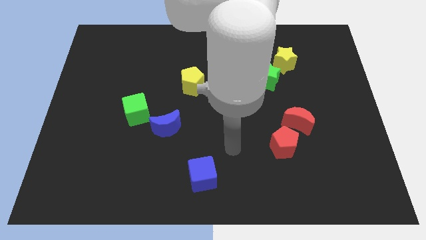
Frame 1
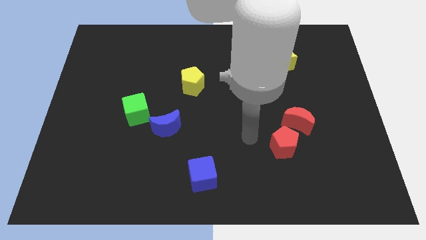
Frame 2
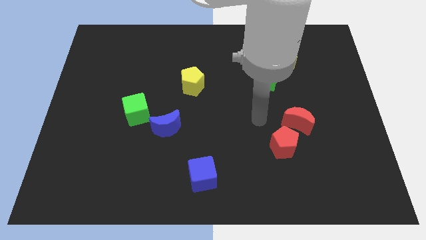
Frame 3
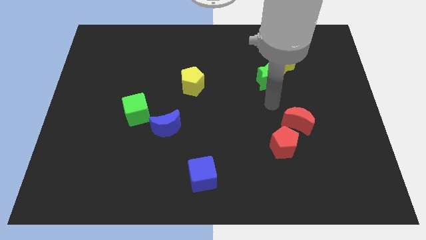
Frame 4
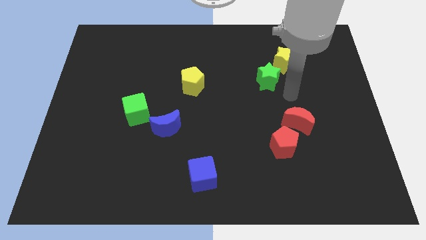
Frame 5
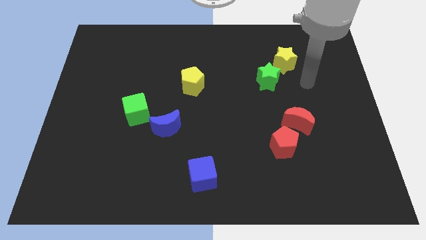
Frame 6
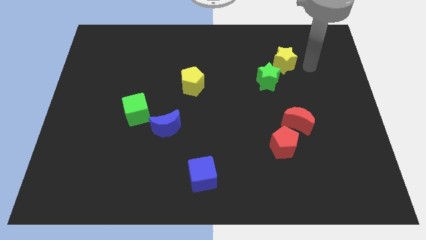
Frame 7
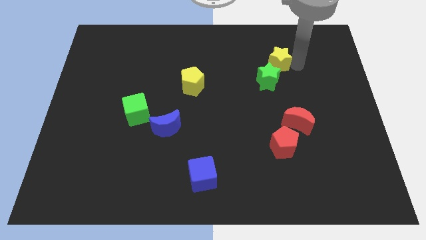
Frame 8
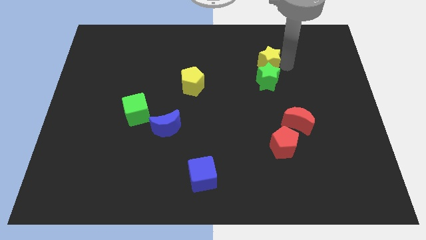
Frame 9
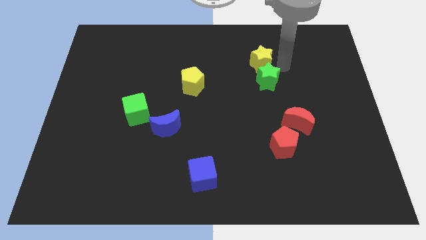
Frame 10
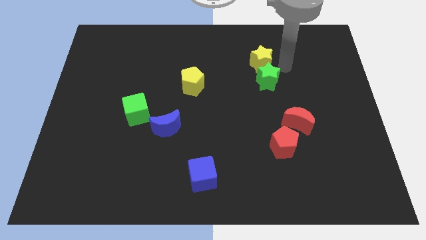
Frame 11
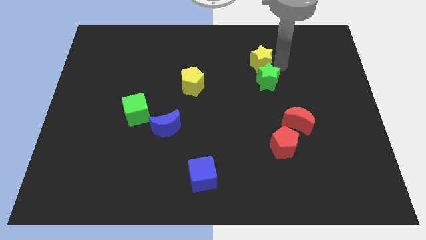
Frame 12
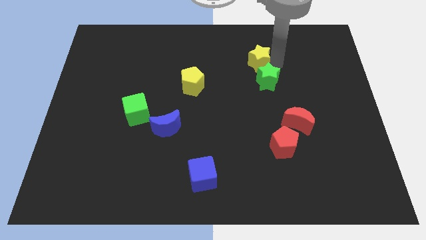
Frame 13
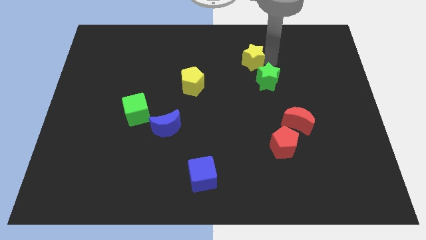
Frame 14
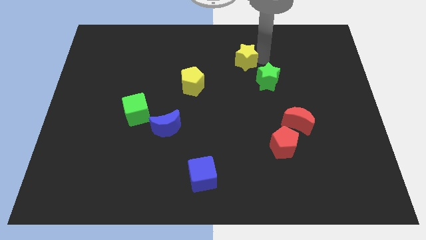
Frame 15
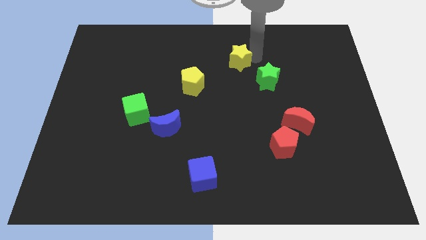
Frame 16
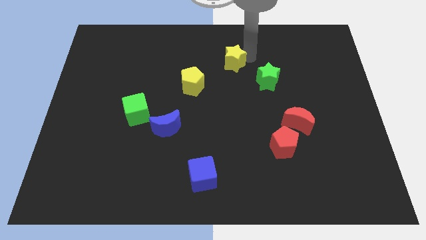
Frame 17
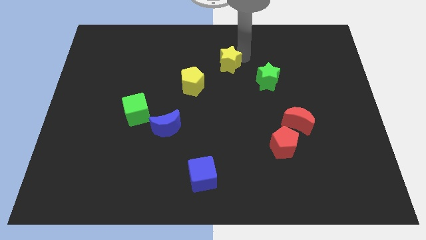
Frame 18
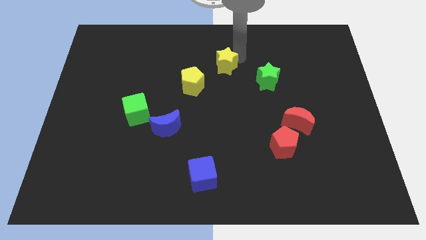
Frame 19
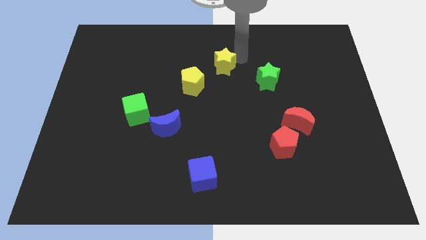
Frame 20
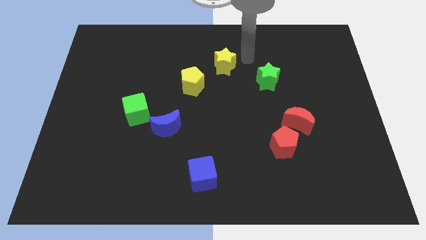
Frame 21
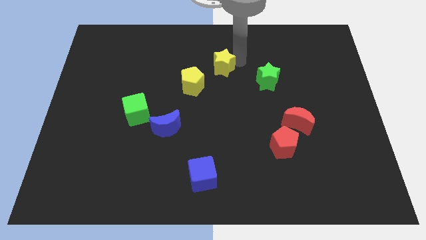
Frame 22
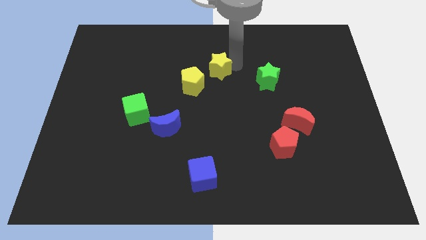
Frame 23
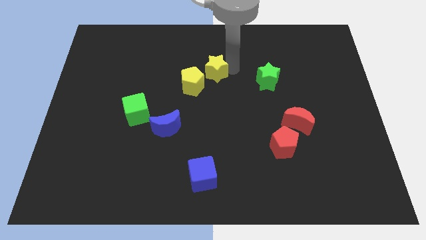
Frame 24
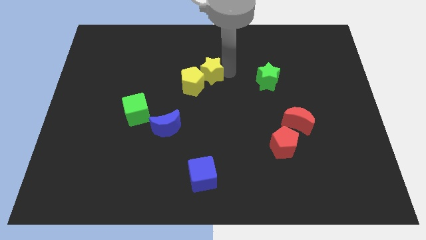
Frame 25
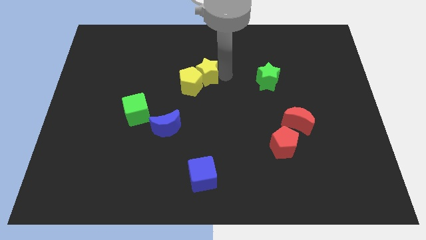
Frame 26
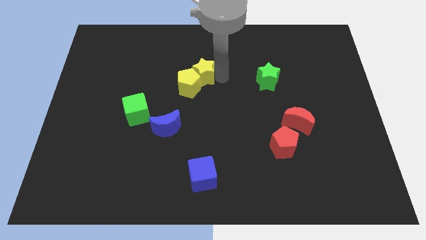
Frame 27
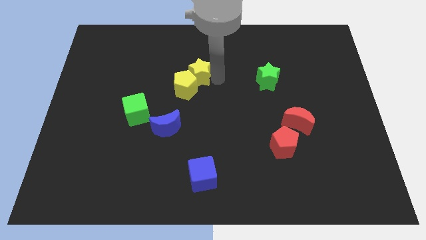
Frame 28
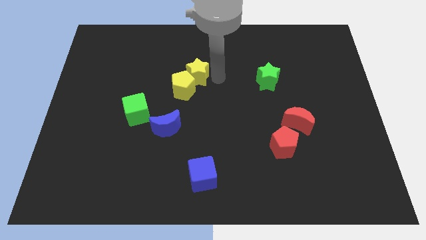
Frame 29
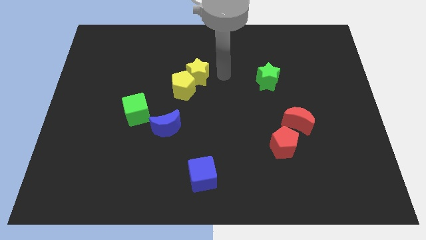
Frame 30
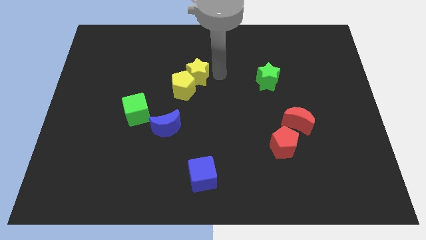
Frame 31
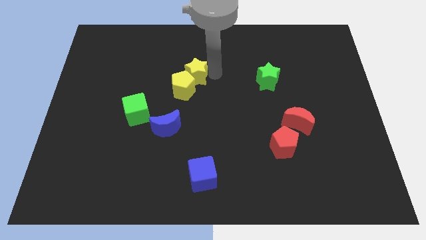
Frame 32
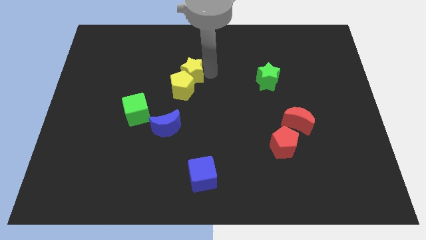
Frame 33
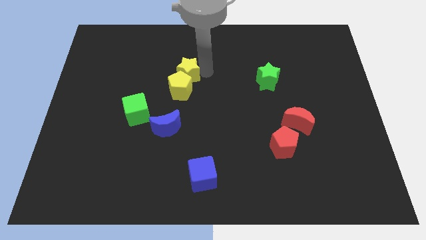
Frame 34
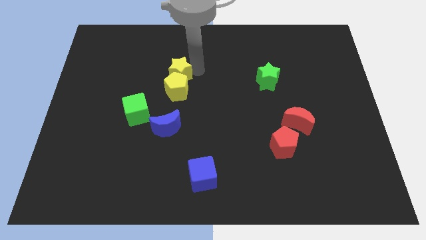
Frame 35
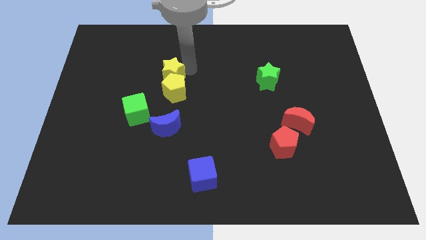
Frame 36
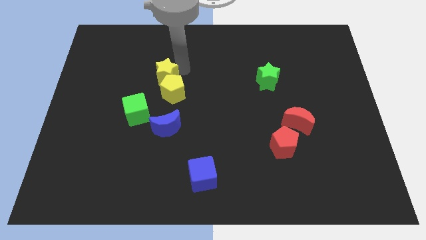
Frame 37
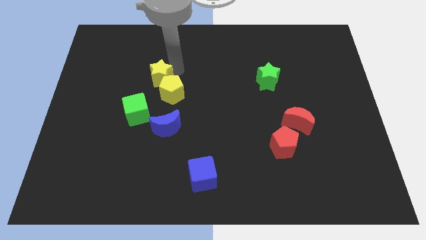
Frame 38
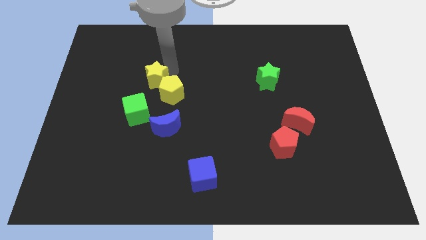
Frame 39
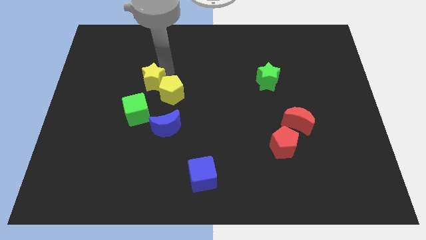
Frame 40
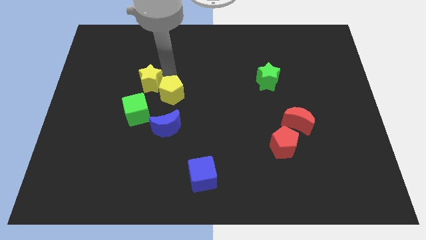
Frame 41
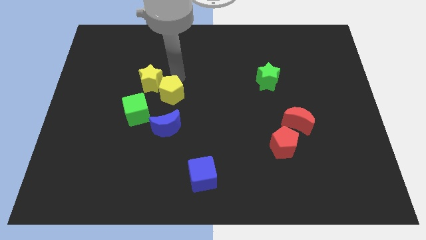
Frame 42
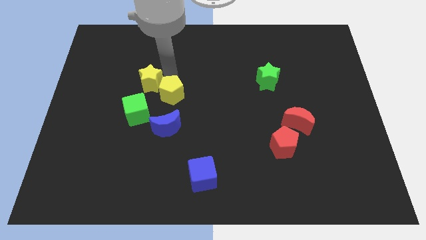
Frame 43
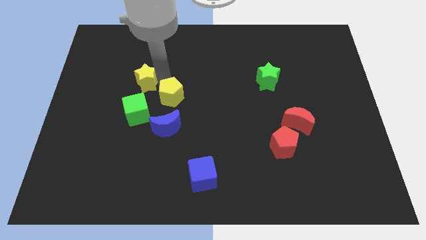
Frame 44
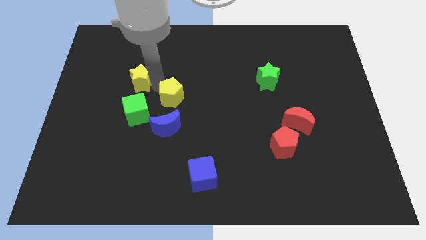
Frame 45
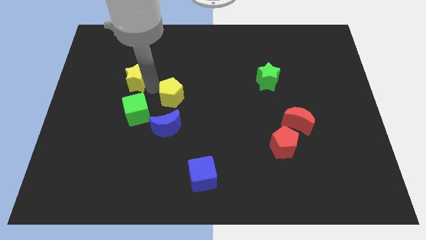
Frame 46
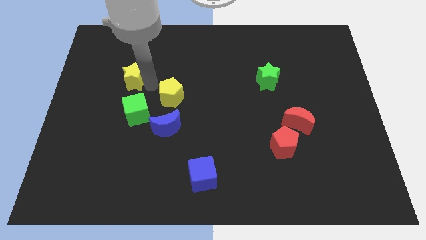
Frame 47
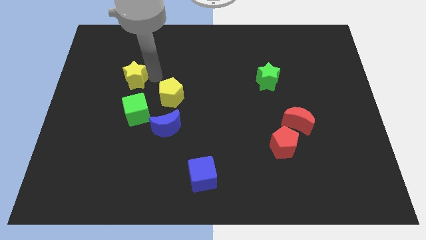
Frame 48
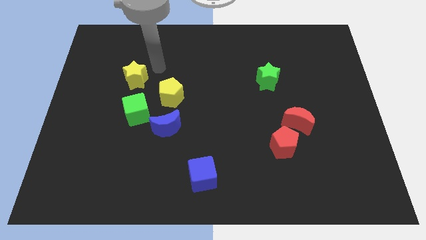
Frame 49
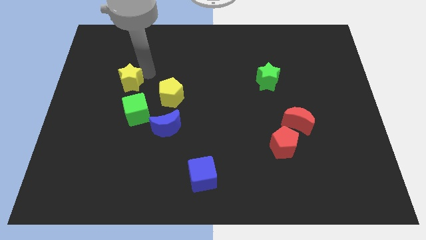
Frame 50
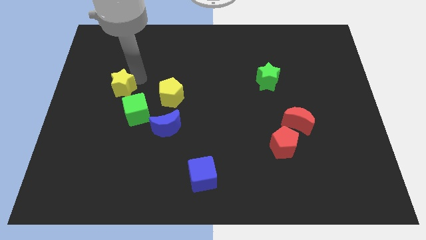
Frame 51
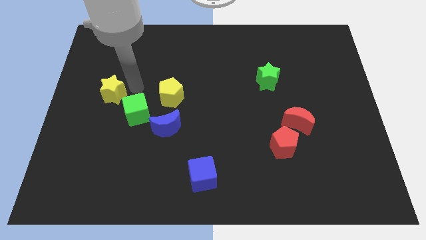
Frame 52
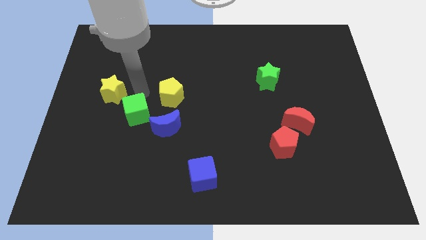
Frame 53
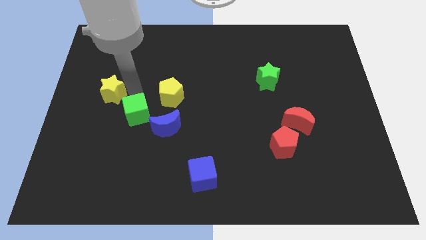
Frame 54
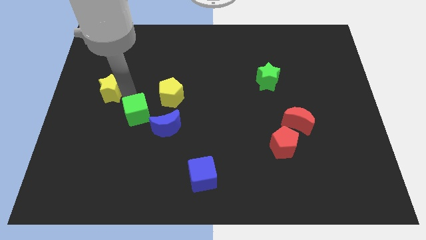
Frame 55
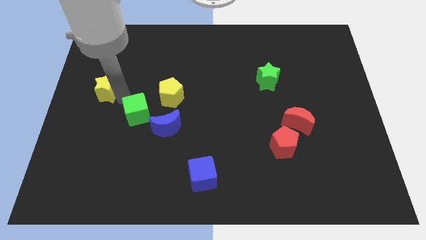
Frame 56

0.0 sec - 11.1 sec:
put the yellow star to the center left

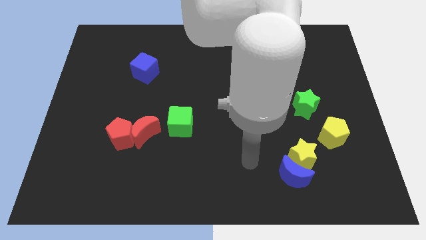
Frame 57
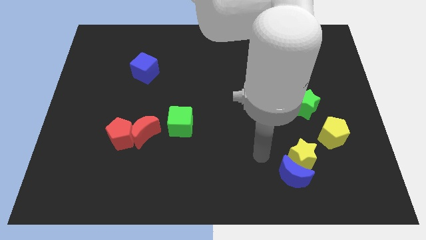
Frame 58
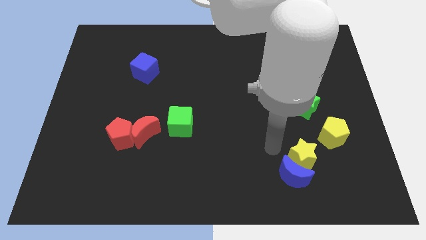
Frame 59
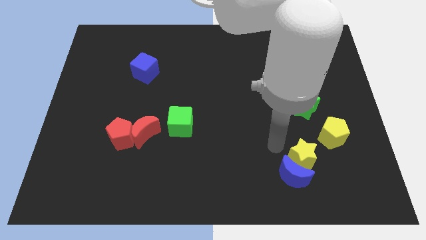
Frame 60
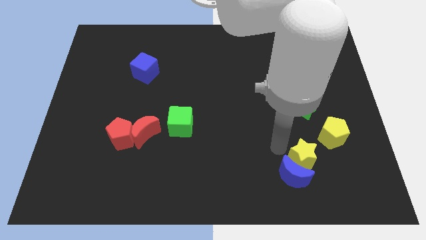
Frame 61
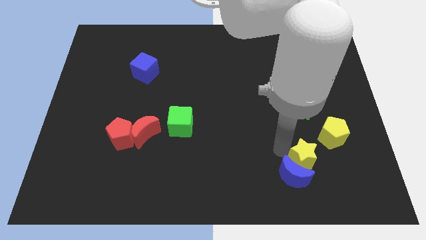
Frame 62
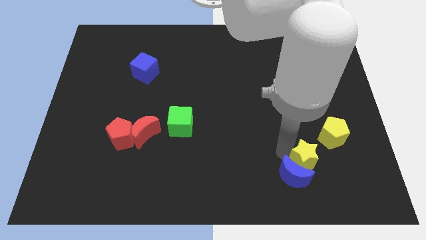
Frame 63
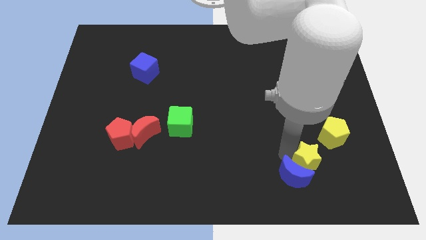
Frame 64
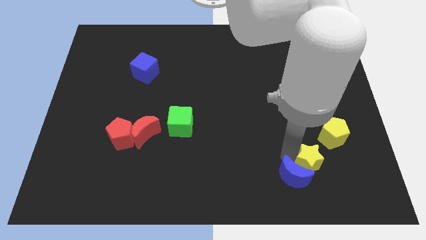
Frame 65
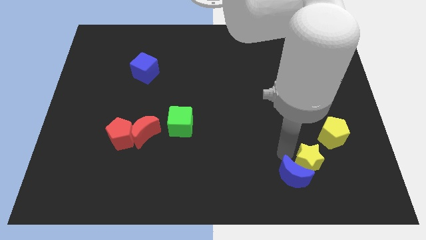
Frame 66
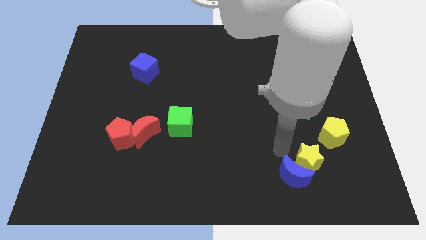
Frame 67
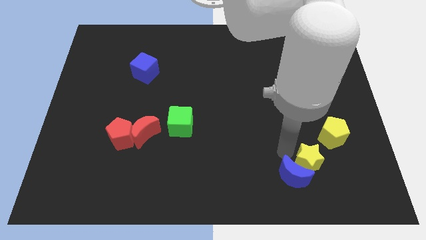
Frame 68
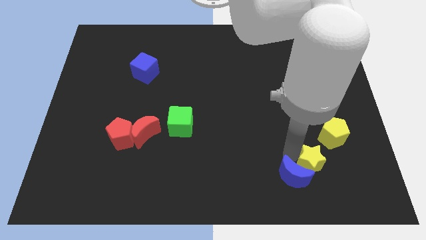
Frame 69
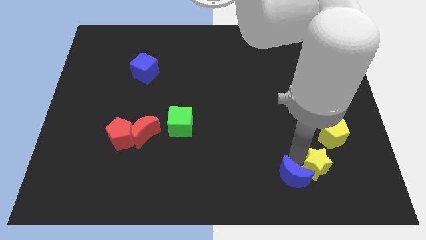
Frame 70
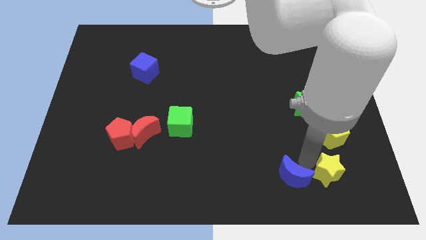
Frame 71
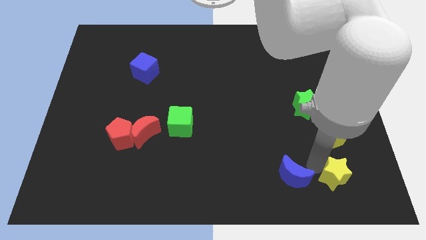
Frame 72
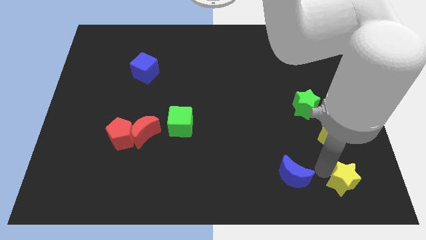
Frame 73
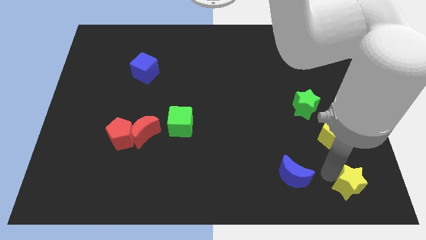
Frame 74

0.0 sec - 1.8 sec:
push the yellow star to the bottom right of the board
